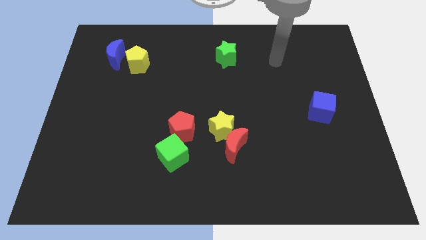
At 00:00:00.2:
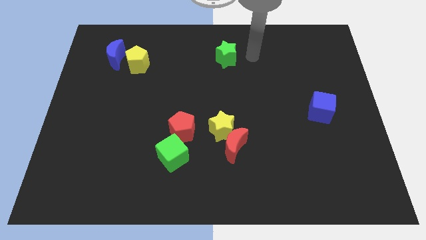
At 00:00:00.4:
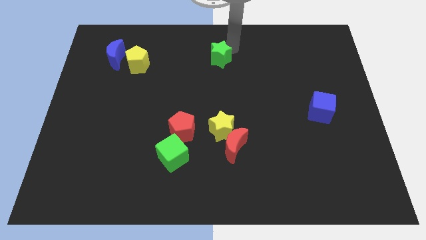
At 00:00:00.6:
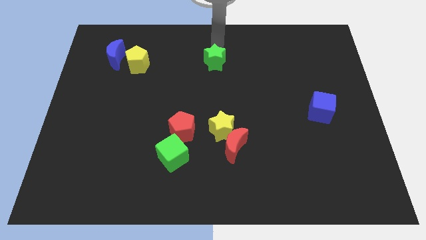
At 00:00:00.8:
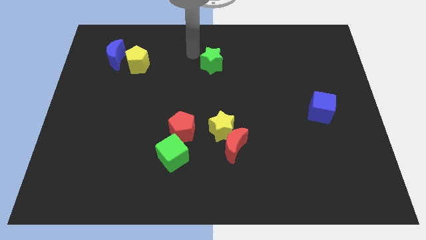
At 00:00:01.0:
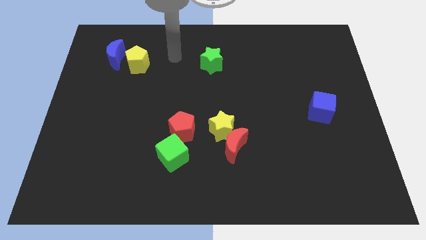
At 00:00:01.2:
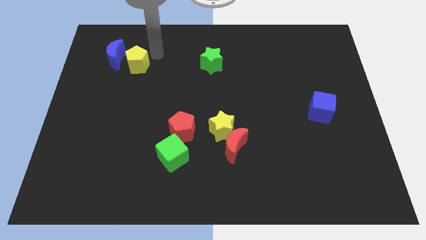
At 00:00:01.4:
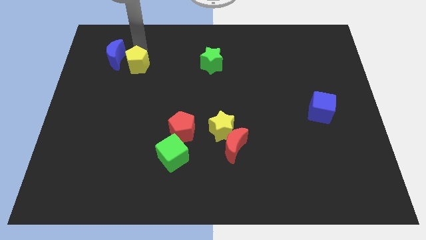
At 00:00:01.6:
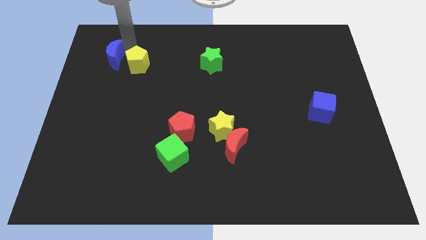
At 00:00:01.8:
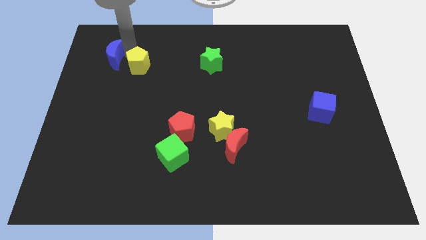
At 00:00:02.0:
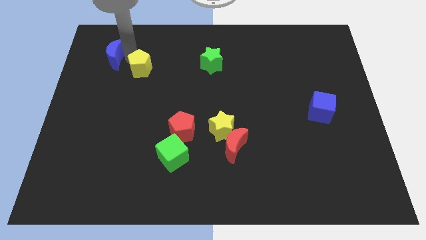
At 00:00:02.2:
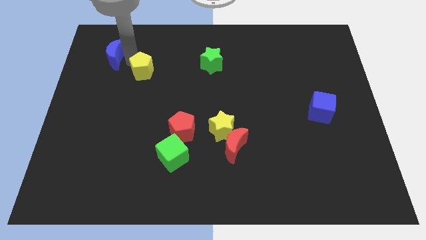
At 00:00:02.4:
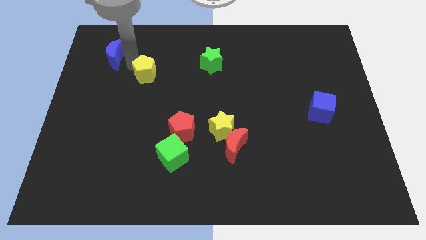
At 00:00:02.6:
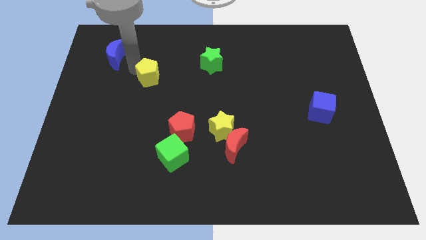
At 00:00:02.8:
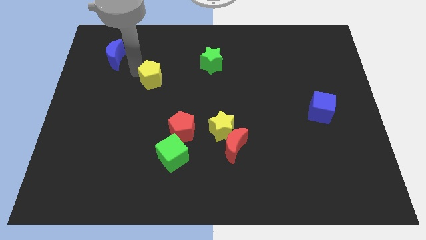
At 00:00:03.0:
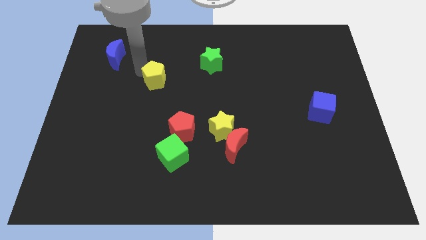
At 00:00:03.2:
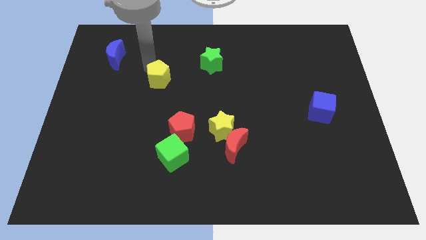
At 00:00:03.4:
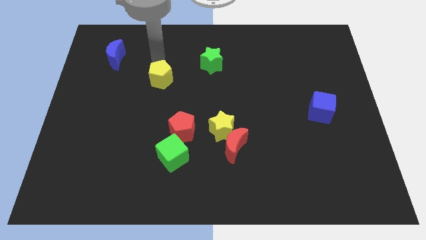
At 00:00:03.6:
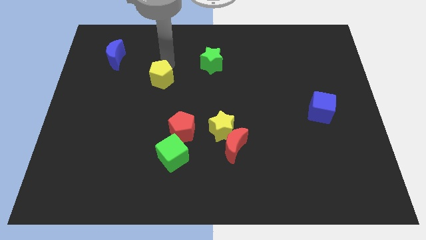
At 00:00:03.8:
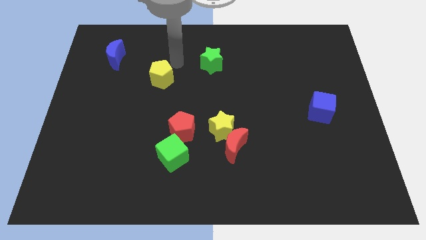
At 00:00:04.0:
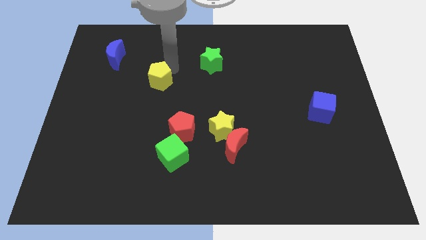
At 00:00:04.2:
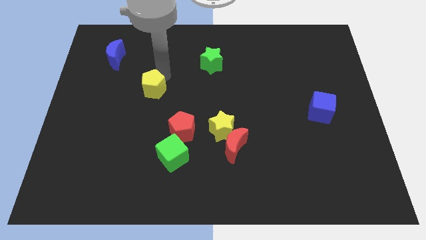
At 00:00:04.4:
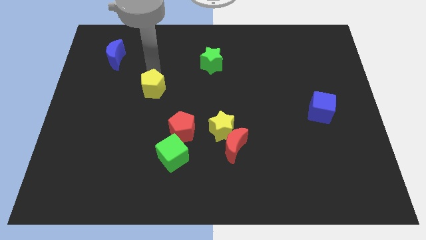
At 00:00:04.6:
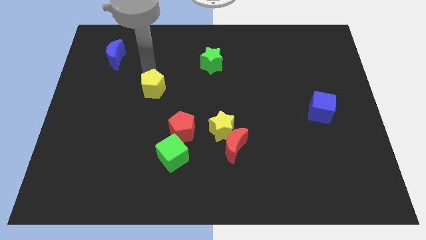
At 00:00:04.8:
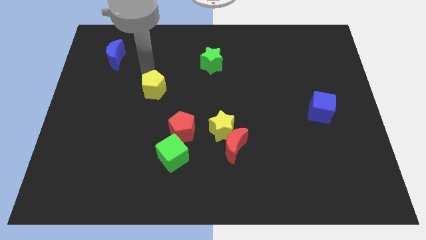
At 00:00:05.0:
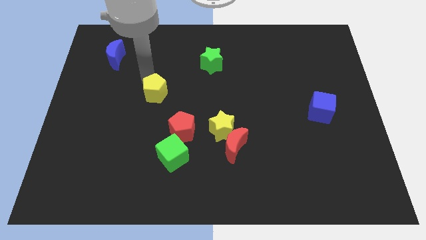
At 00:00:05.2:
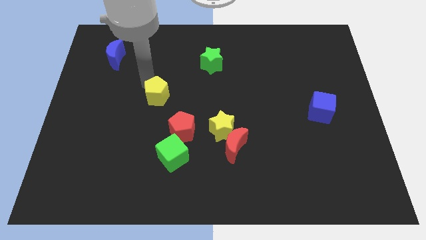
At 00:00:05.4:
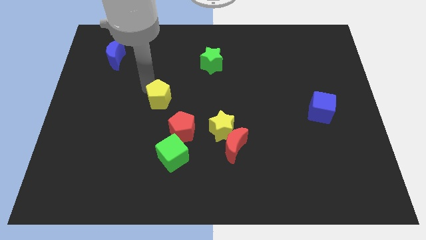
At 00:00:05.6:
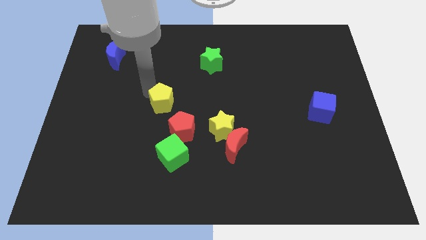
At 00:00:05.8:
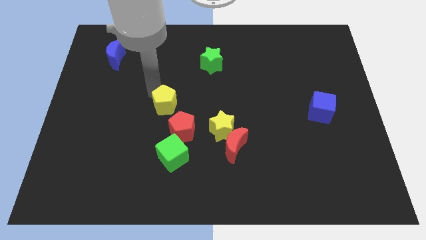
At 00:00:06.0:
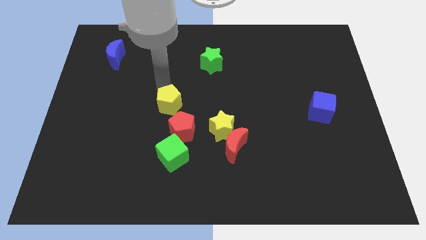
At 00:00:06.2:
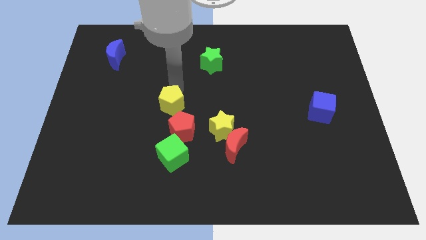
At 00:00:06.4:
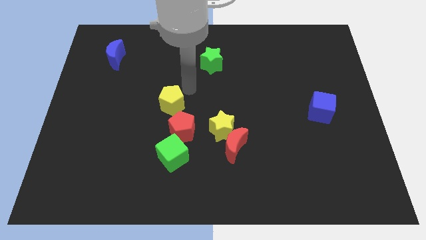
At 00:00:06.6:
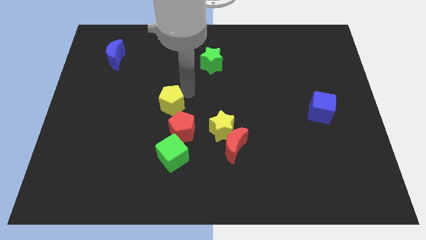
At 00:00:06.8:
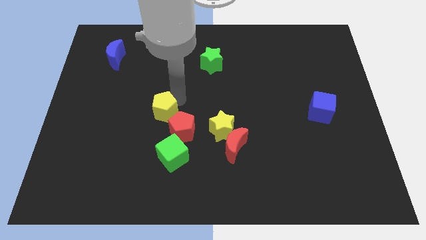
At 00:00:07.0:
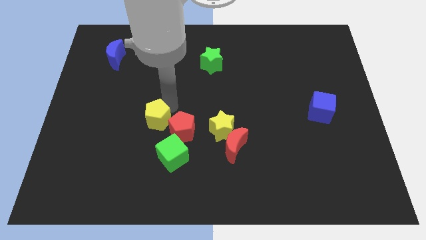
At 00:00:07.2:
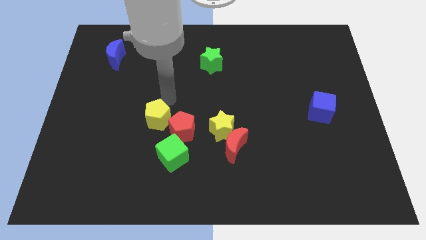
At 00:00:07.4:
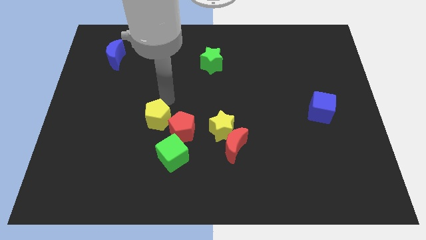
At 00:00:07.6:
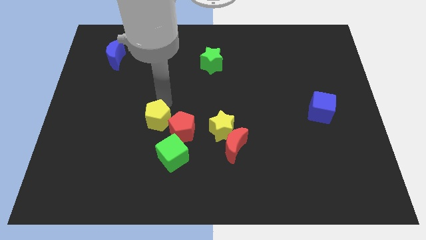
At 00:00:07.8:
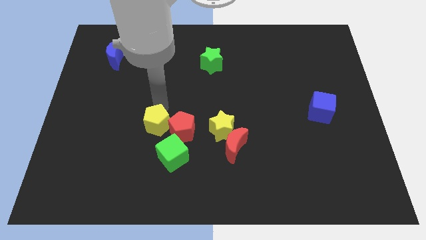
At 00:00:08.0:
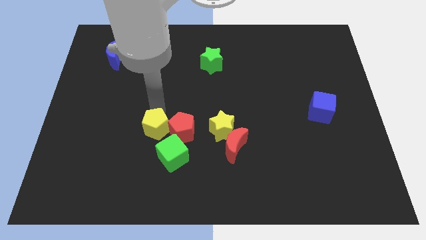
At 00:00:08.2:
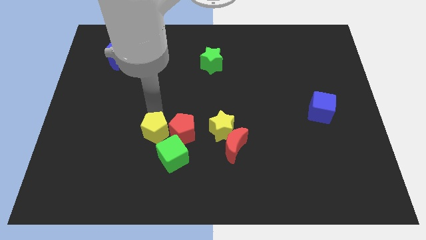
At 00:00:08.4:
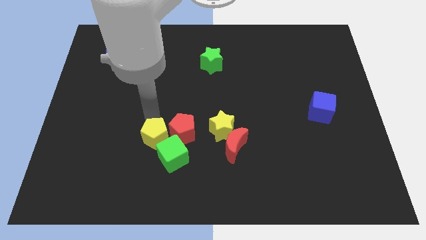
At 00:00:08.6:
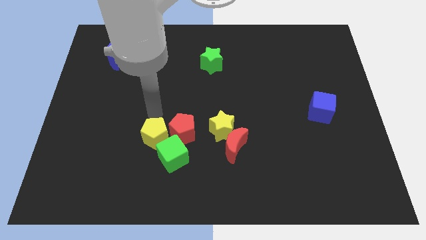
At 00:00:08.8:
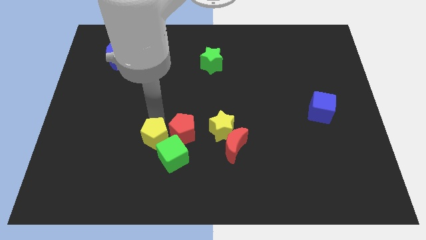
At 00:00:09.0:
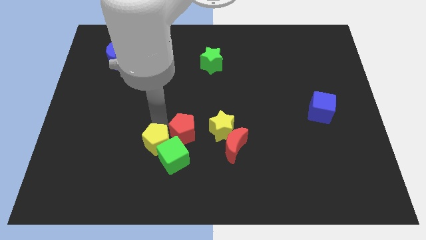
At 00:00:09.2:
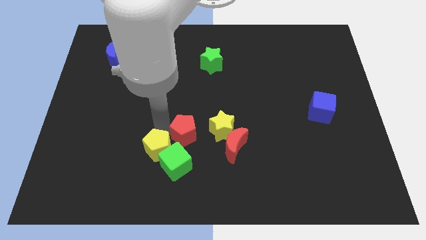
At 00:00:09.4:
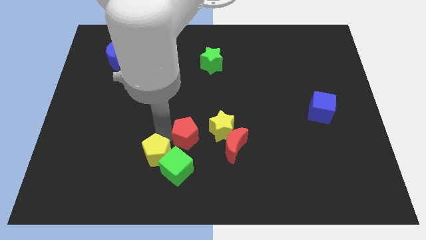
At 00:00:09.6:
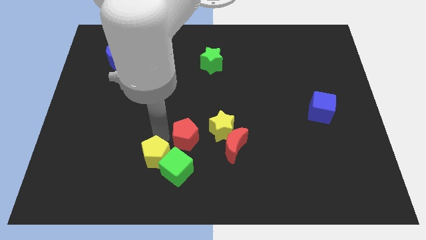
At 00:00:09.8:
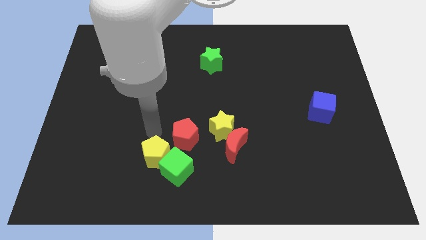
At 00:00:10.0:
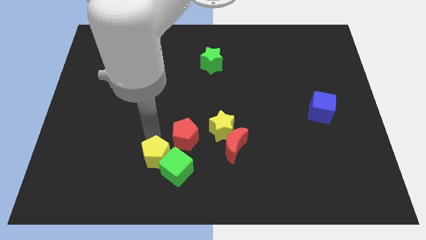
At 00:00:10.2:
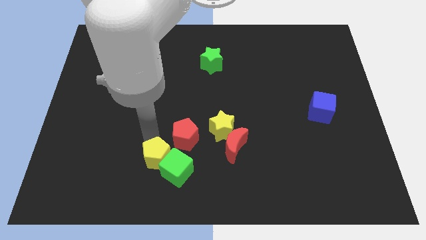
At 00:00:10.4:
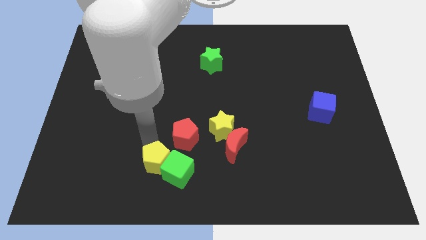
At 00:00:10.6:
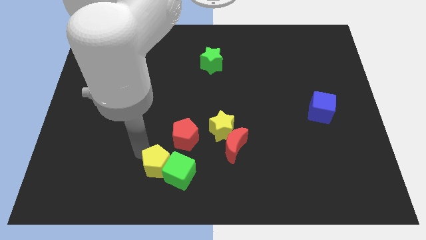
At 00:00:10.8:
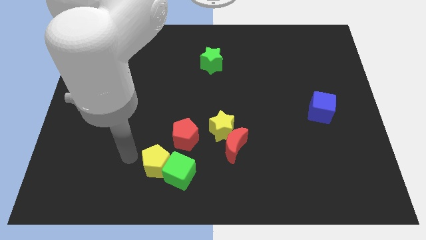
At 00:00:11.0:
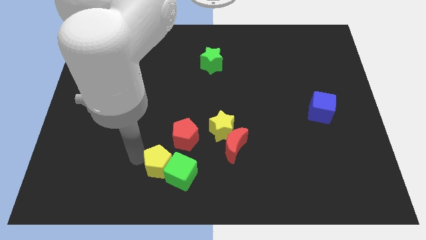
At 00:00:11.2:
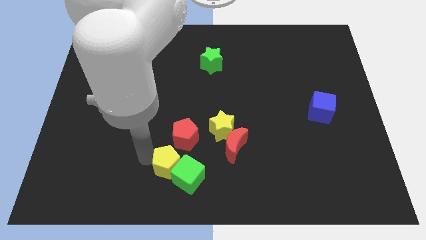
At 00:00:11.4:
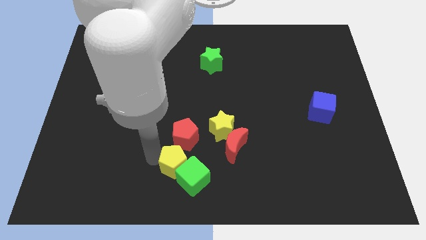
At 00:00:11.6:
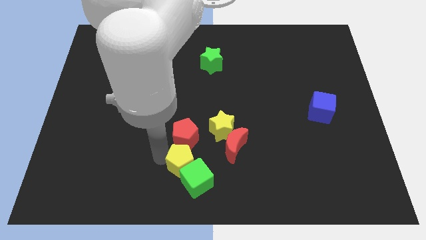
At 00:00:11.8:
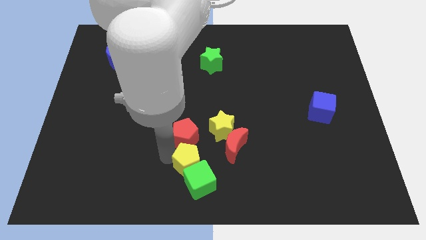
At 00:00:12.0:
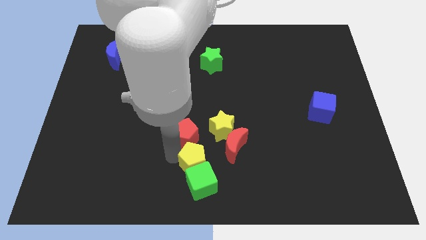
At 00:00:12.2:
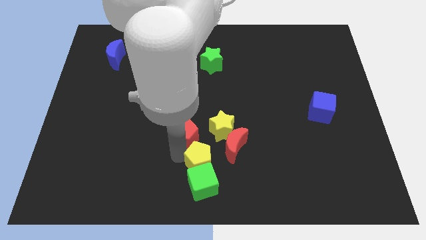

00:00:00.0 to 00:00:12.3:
slide the yellow pentagon to the bottom side of the yellow star
